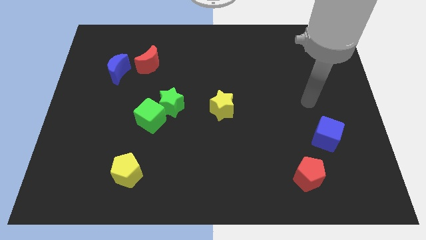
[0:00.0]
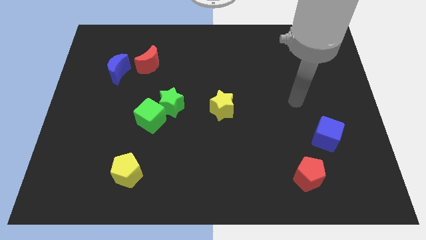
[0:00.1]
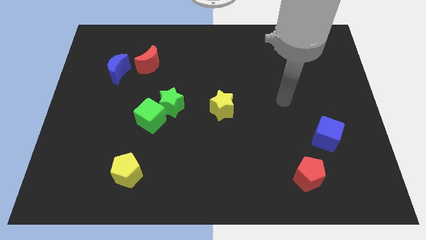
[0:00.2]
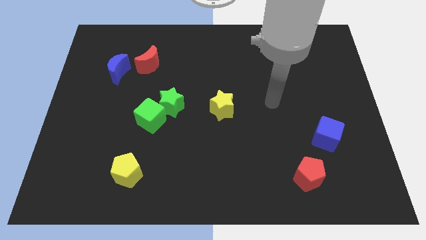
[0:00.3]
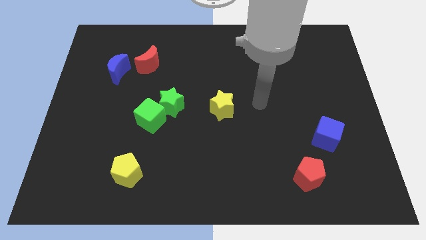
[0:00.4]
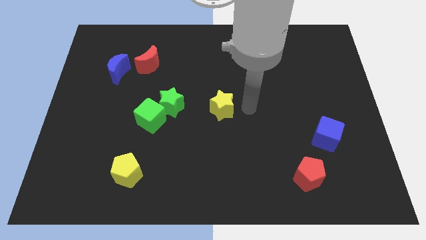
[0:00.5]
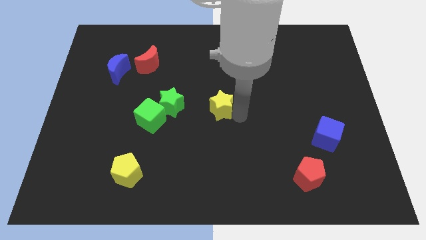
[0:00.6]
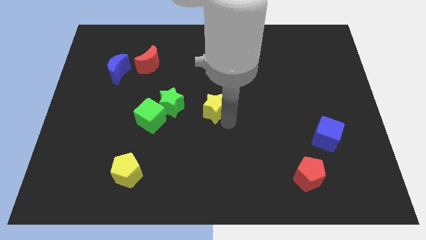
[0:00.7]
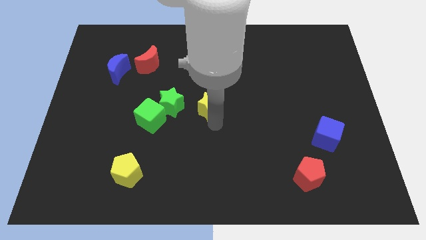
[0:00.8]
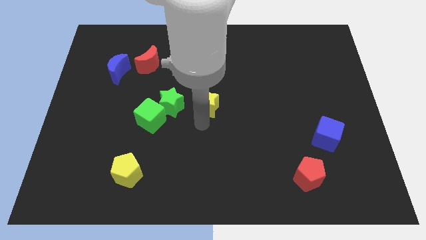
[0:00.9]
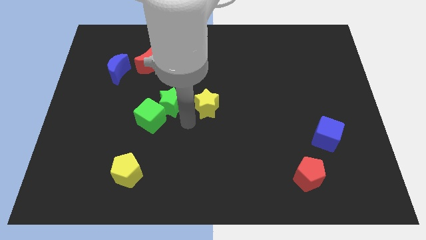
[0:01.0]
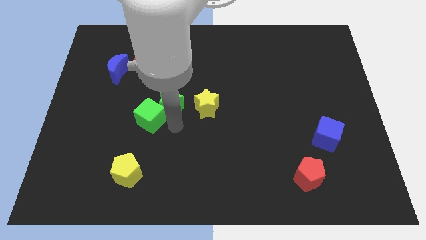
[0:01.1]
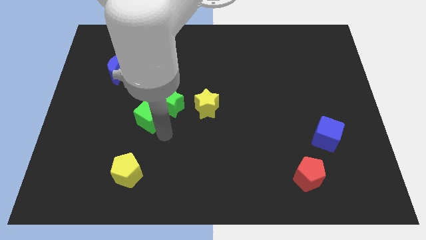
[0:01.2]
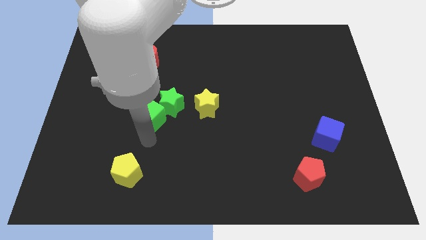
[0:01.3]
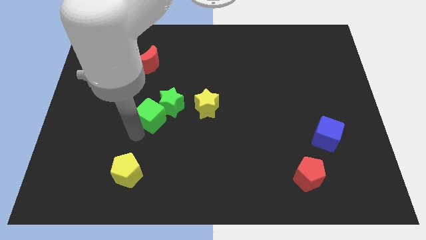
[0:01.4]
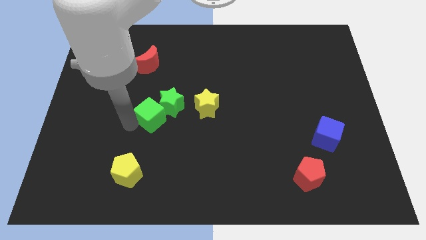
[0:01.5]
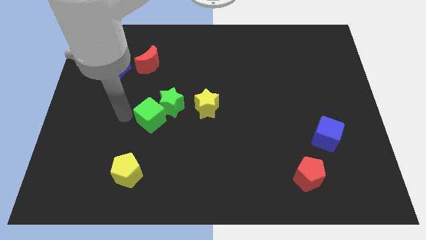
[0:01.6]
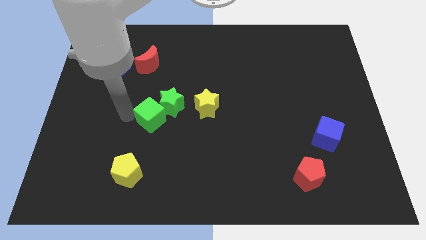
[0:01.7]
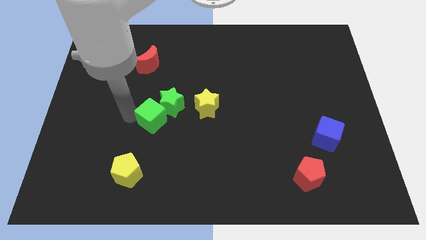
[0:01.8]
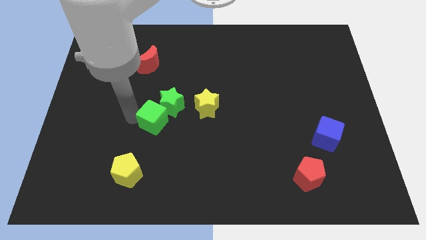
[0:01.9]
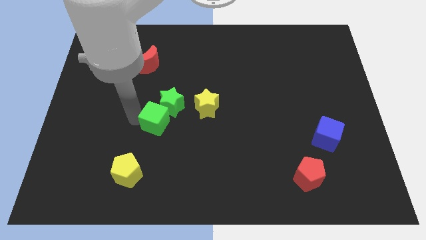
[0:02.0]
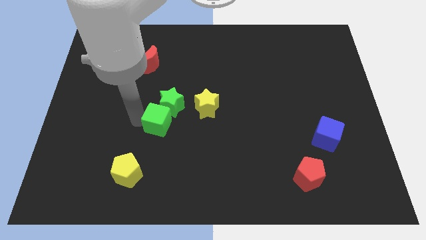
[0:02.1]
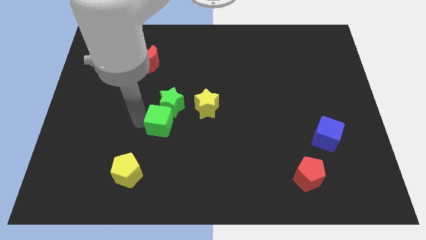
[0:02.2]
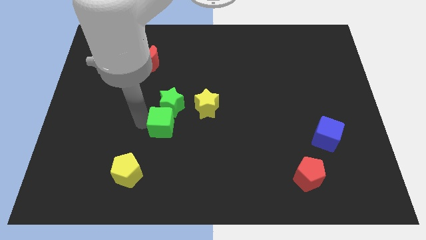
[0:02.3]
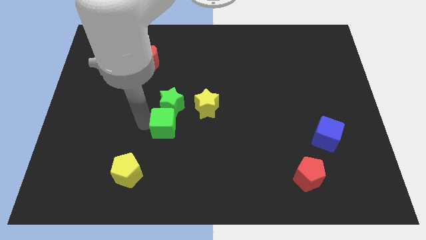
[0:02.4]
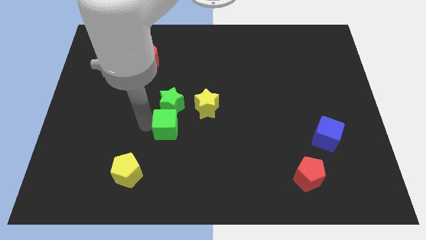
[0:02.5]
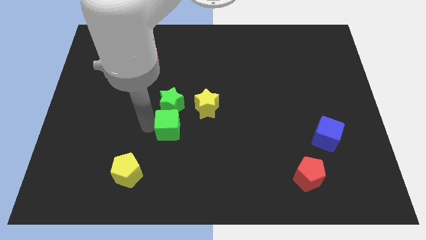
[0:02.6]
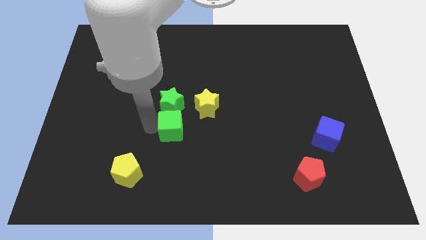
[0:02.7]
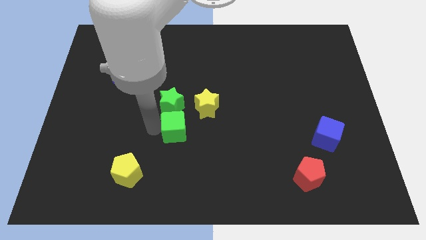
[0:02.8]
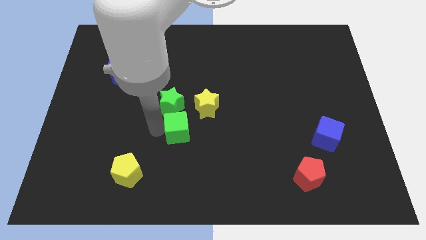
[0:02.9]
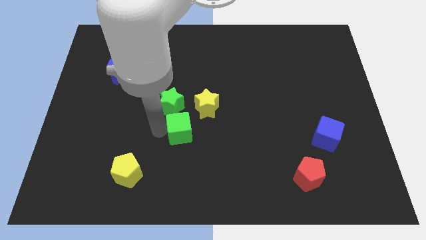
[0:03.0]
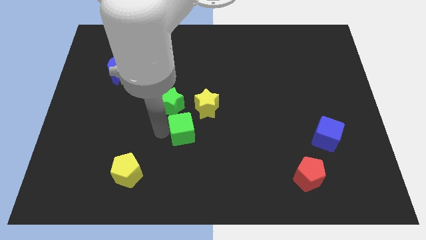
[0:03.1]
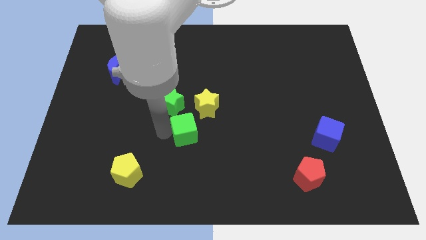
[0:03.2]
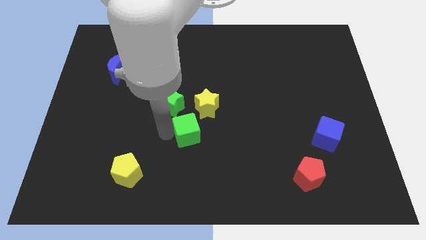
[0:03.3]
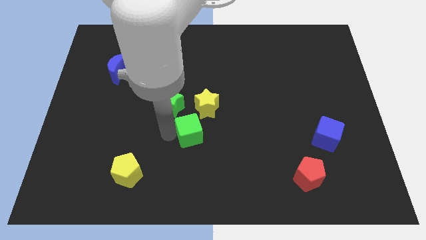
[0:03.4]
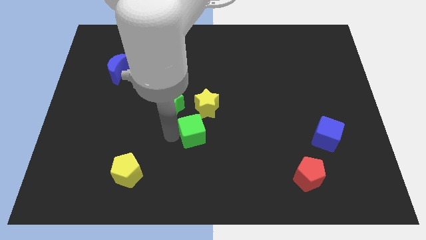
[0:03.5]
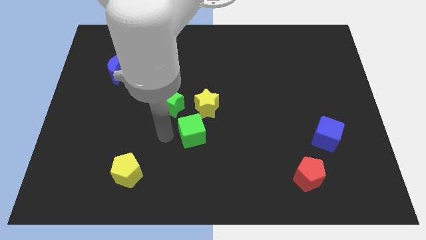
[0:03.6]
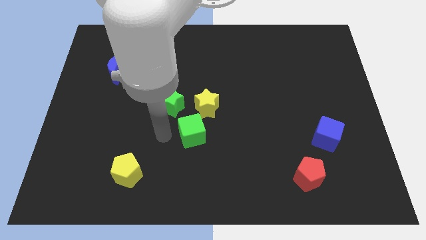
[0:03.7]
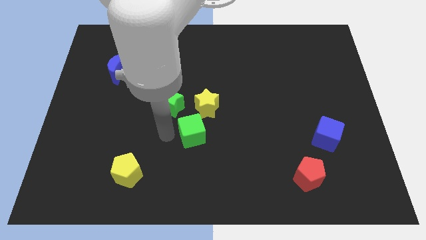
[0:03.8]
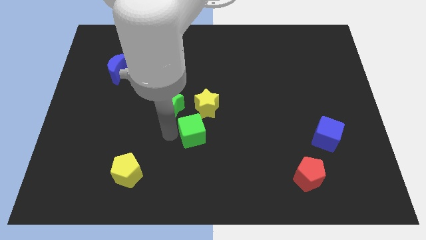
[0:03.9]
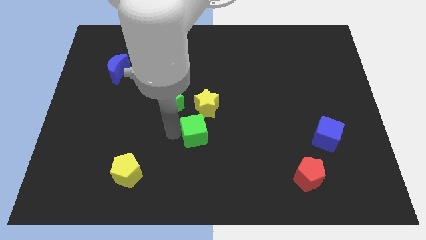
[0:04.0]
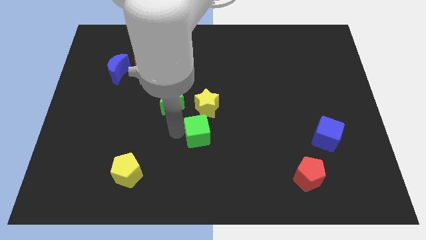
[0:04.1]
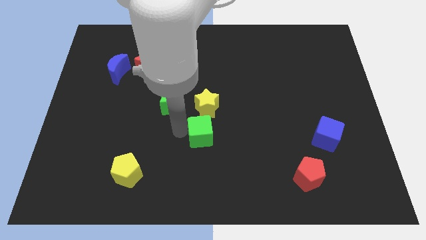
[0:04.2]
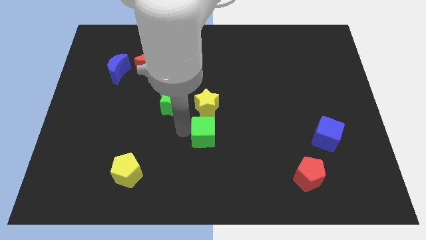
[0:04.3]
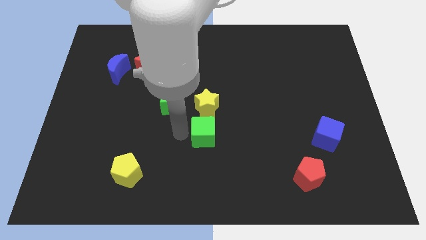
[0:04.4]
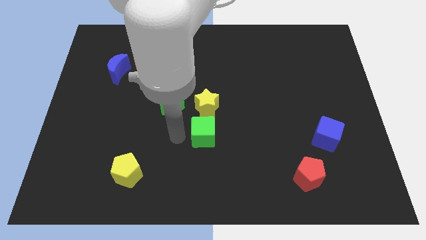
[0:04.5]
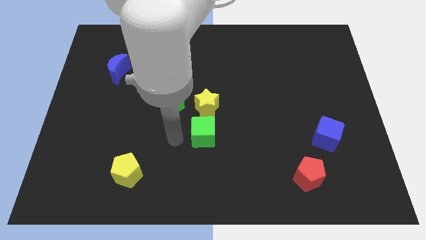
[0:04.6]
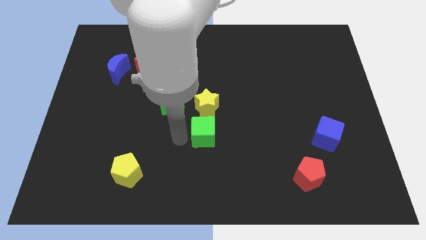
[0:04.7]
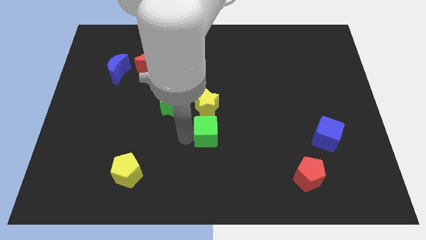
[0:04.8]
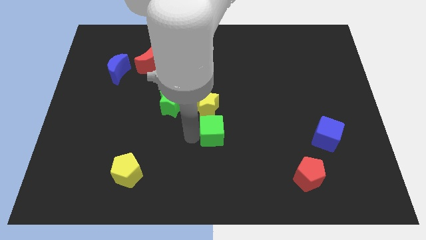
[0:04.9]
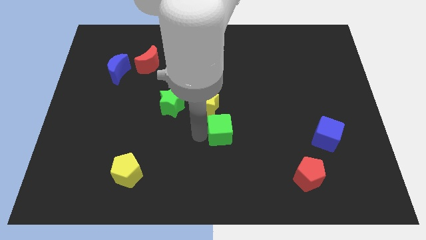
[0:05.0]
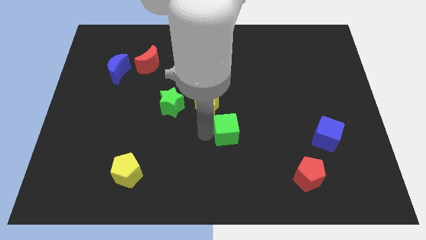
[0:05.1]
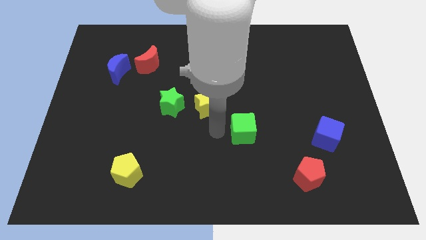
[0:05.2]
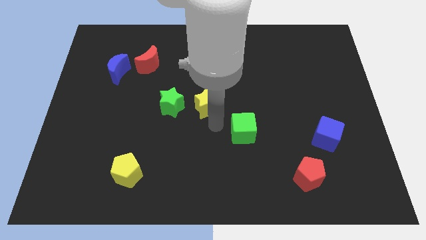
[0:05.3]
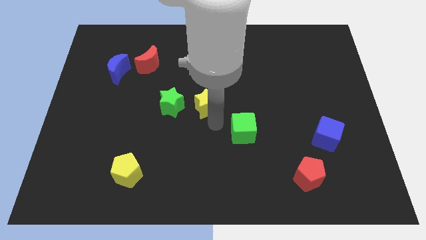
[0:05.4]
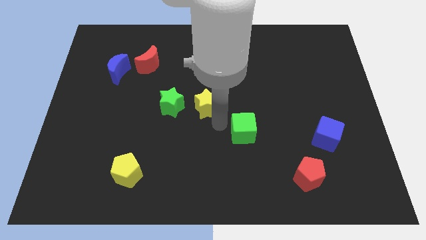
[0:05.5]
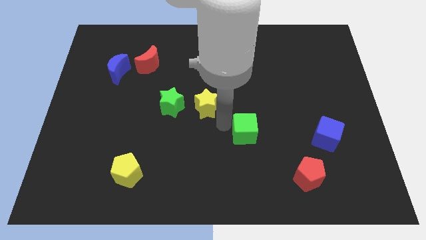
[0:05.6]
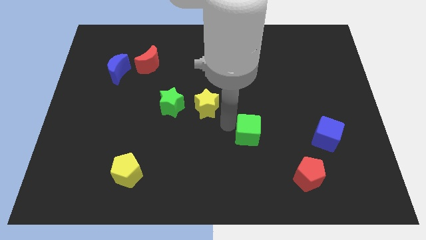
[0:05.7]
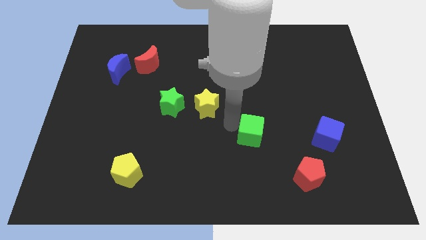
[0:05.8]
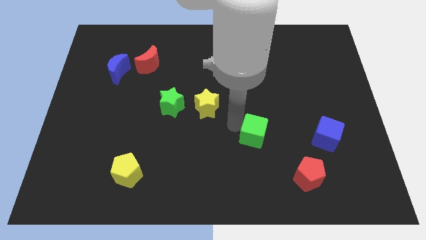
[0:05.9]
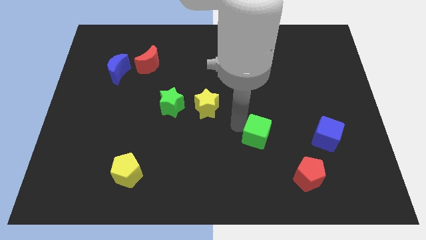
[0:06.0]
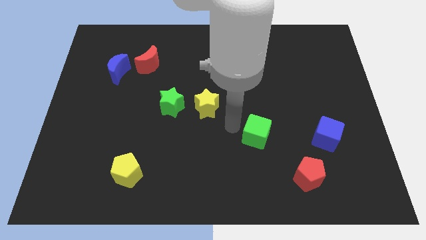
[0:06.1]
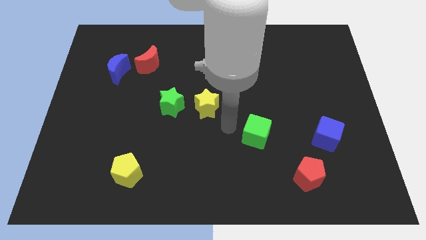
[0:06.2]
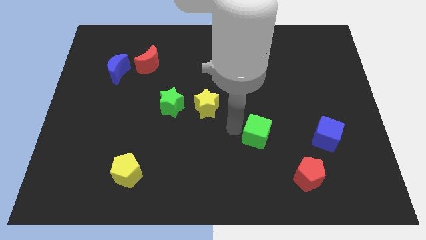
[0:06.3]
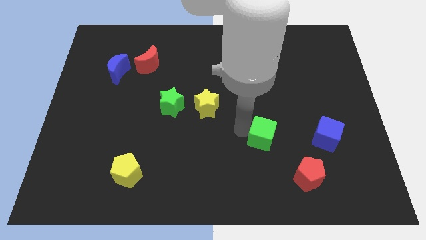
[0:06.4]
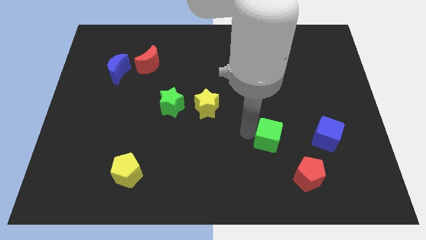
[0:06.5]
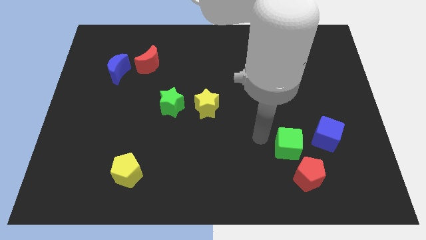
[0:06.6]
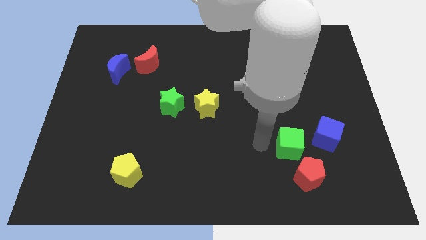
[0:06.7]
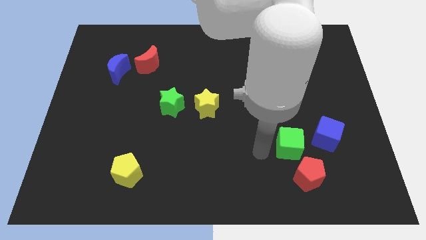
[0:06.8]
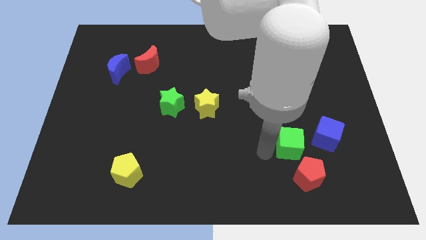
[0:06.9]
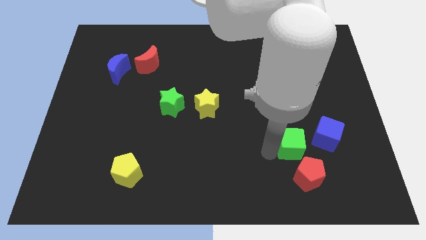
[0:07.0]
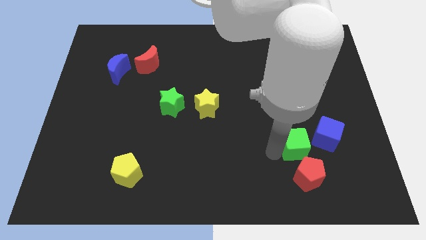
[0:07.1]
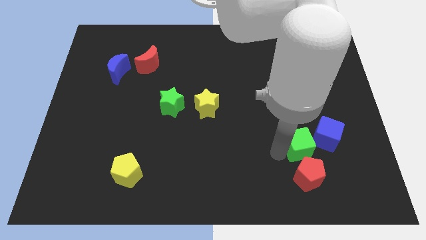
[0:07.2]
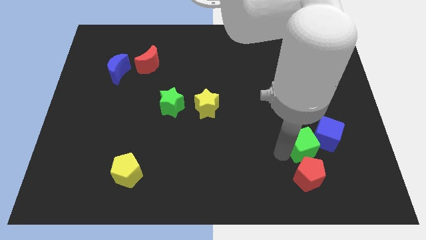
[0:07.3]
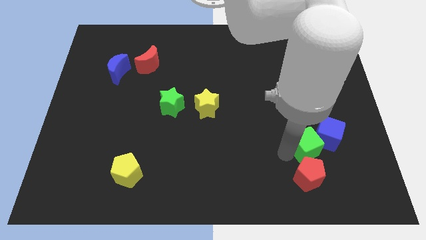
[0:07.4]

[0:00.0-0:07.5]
push the green cube next to the blue cube
